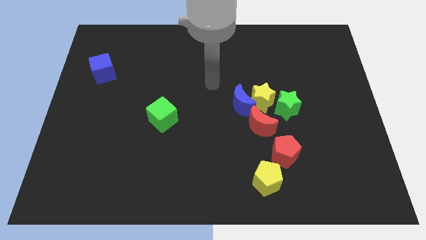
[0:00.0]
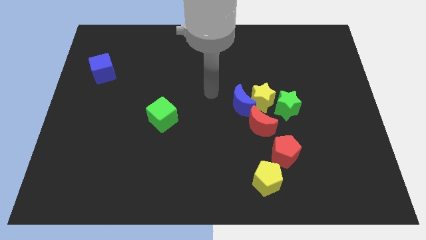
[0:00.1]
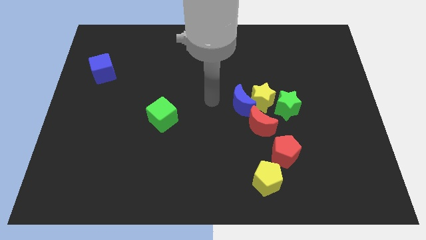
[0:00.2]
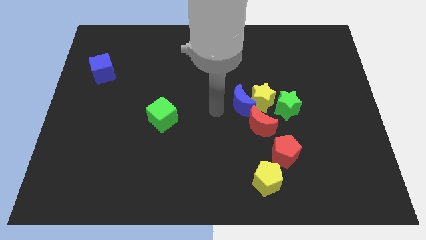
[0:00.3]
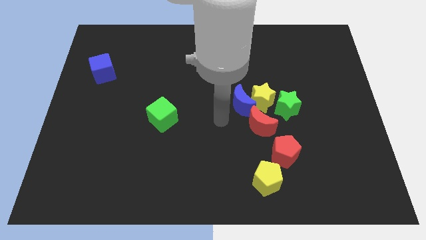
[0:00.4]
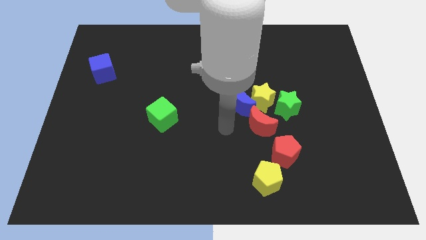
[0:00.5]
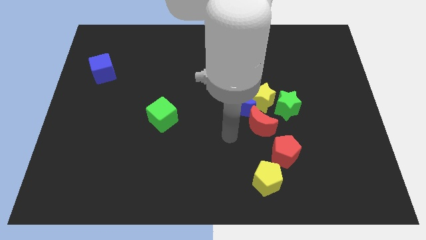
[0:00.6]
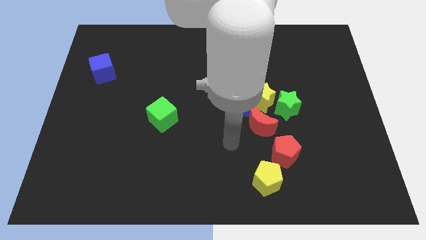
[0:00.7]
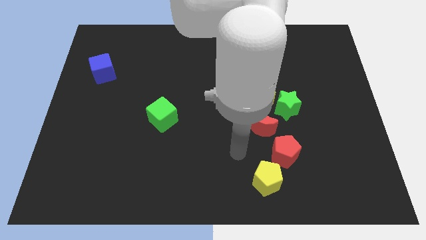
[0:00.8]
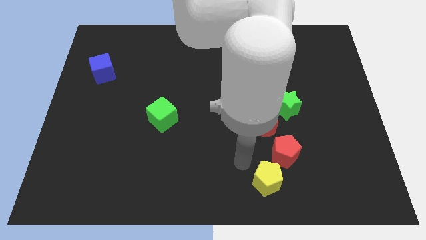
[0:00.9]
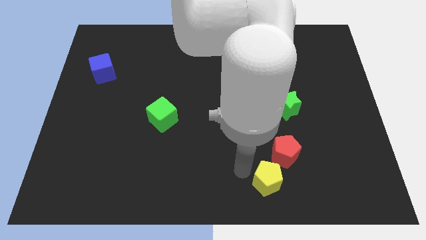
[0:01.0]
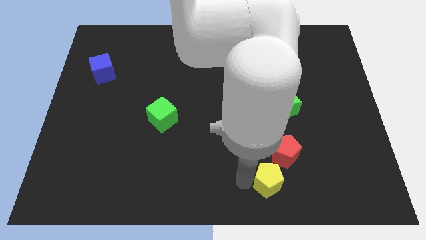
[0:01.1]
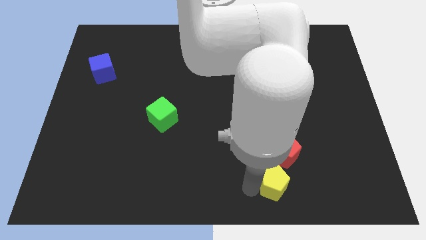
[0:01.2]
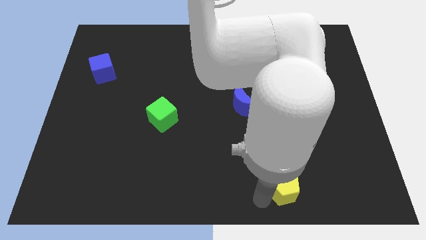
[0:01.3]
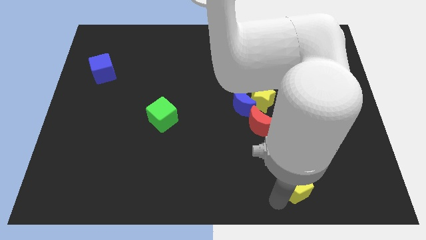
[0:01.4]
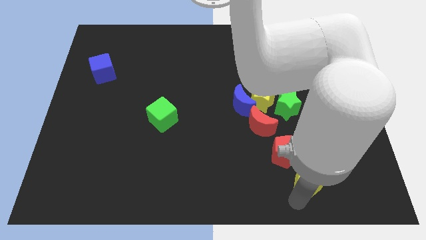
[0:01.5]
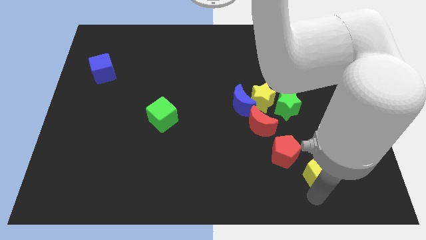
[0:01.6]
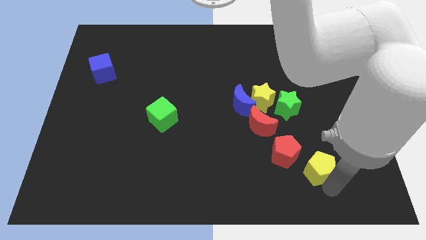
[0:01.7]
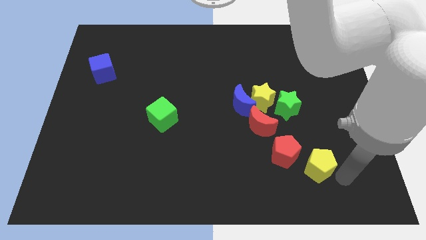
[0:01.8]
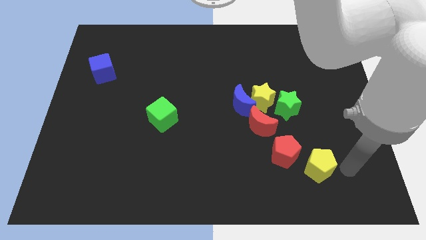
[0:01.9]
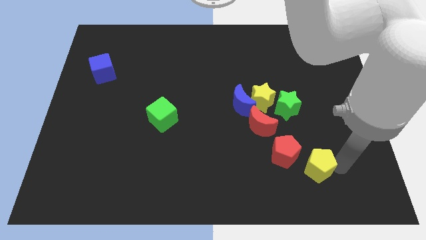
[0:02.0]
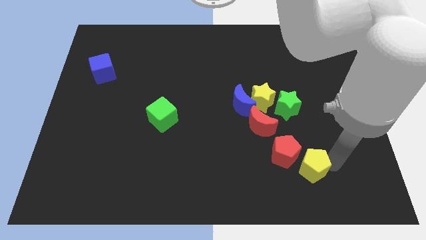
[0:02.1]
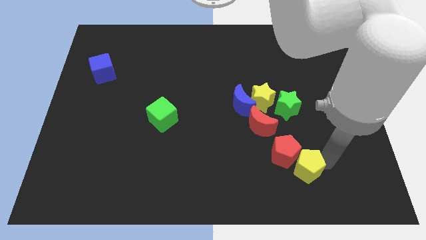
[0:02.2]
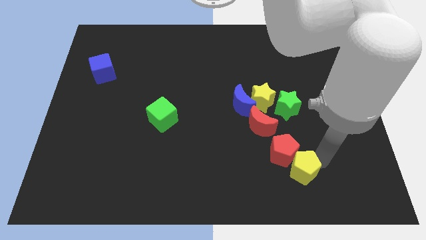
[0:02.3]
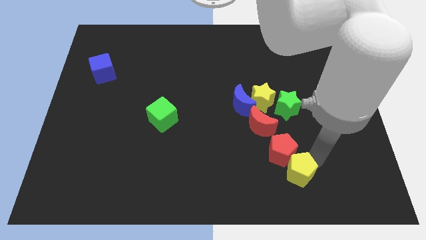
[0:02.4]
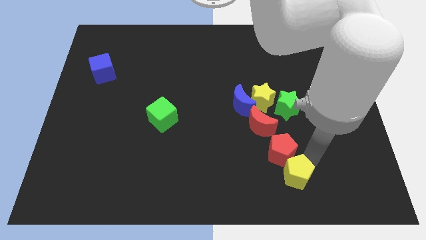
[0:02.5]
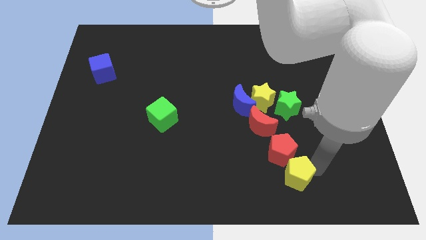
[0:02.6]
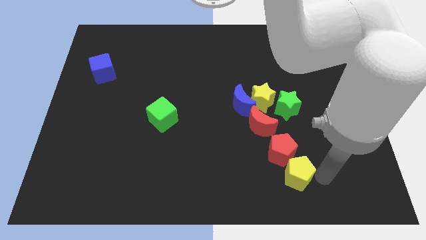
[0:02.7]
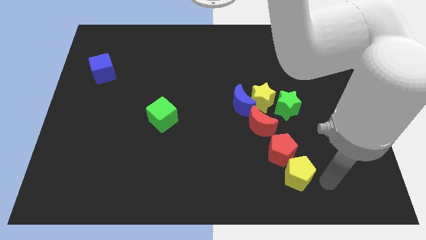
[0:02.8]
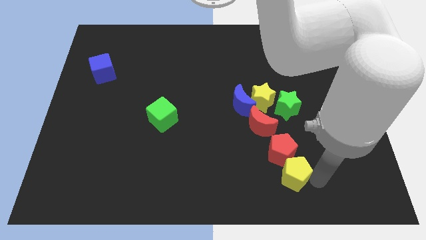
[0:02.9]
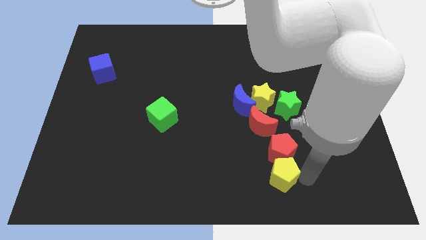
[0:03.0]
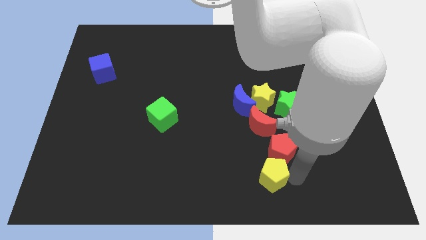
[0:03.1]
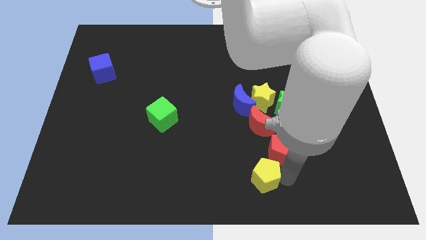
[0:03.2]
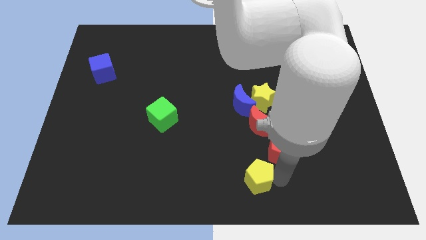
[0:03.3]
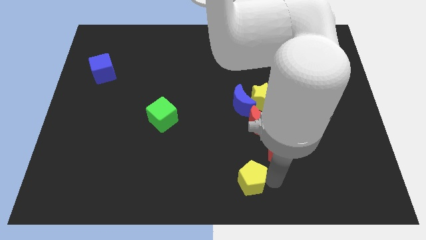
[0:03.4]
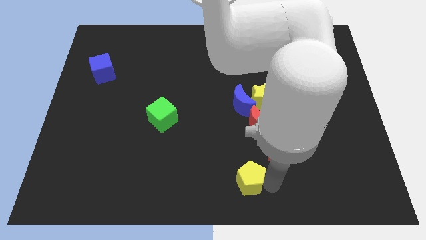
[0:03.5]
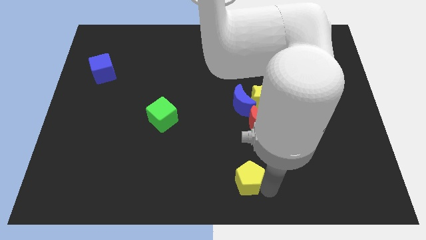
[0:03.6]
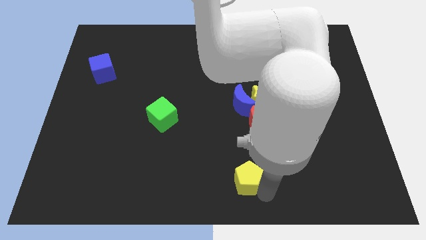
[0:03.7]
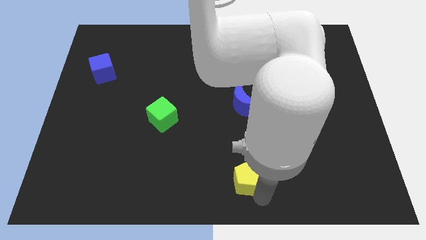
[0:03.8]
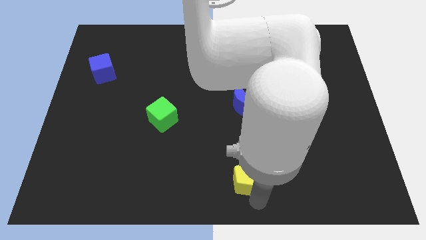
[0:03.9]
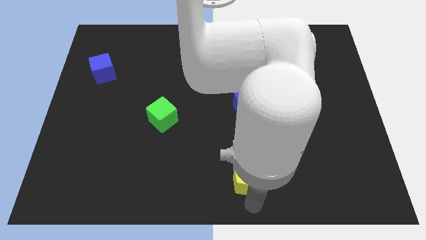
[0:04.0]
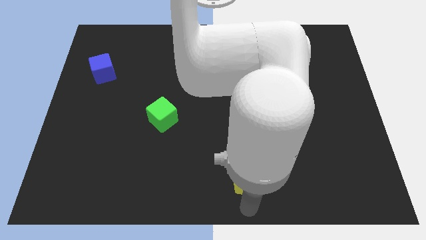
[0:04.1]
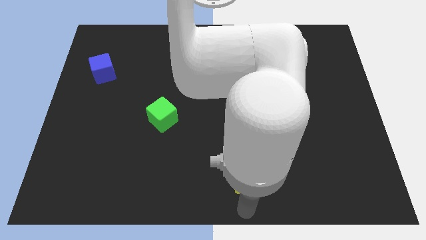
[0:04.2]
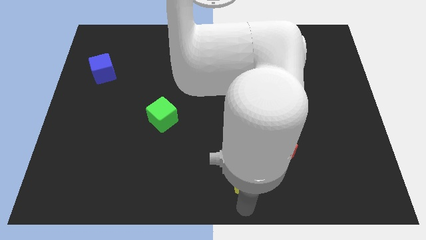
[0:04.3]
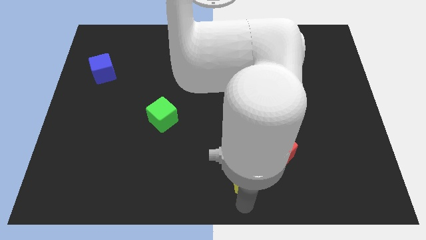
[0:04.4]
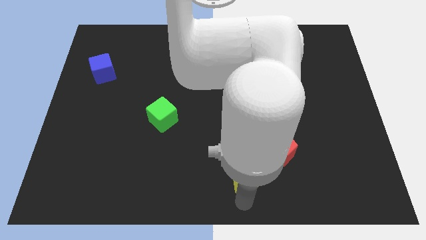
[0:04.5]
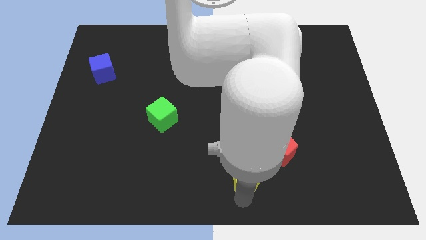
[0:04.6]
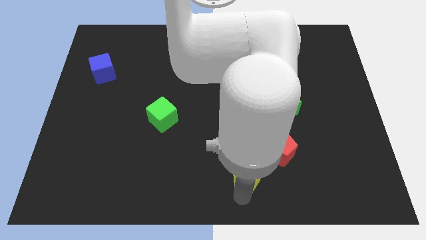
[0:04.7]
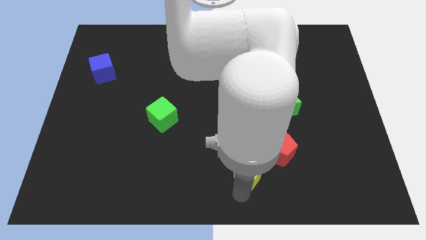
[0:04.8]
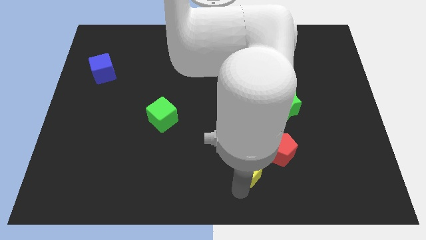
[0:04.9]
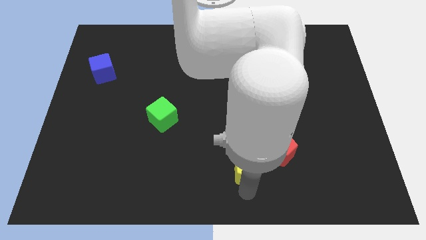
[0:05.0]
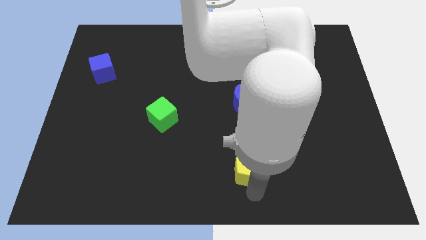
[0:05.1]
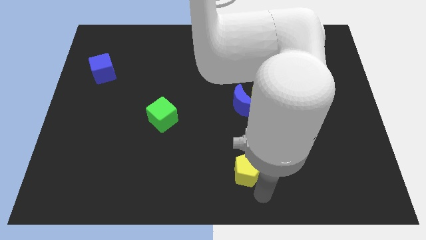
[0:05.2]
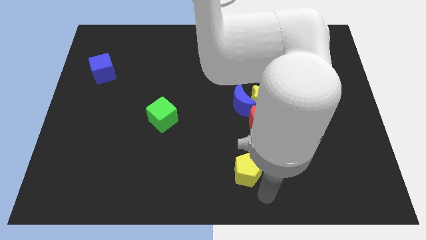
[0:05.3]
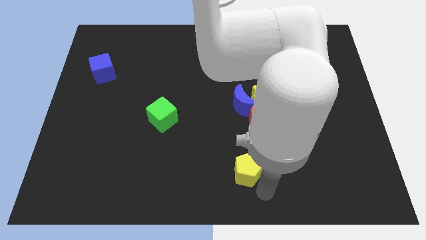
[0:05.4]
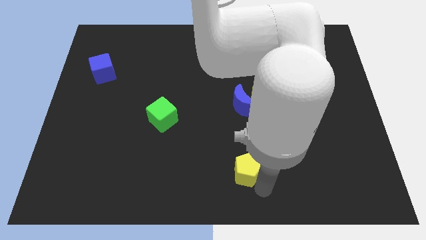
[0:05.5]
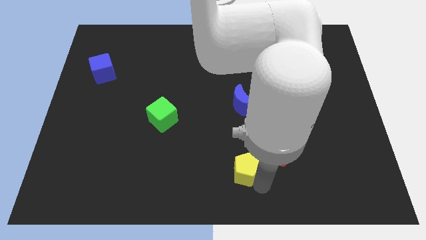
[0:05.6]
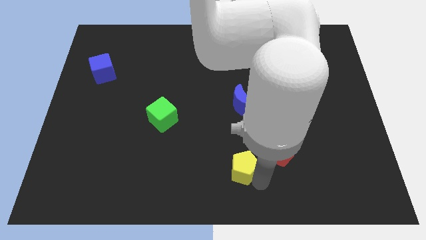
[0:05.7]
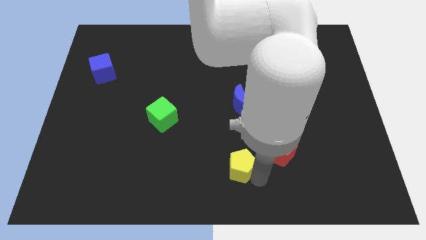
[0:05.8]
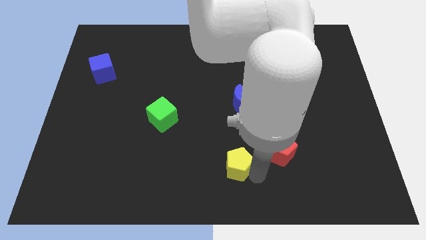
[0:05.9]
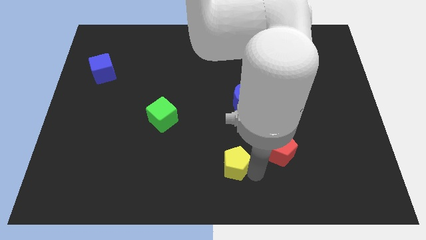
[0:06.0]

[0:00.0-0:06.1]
push the yellow pentagon a bit upwards and left diagonally

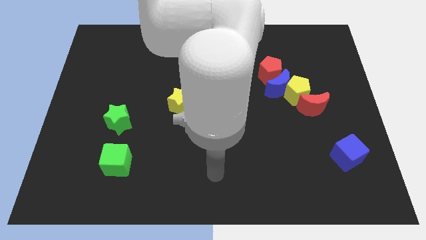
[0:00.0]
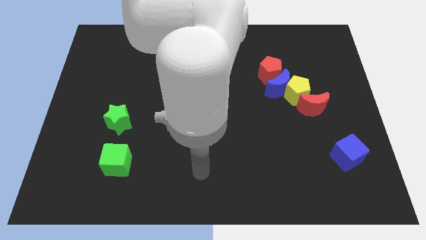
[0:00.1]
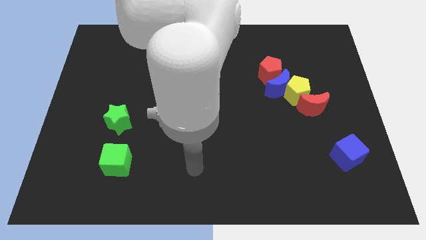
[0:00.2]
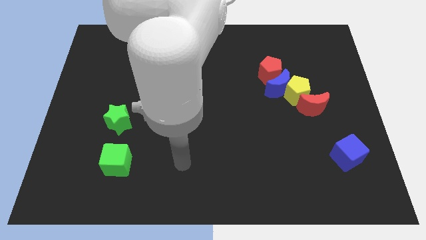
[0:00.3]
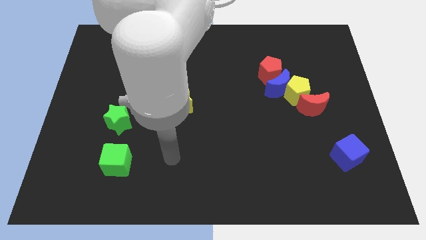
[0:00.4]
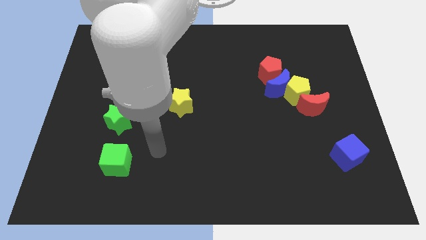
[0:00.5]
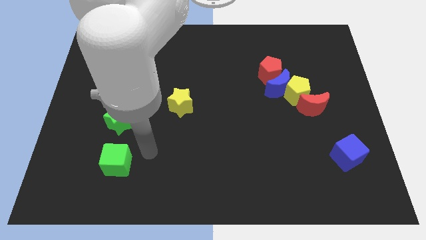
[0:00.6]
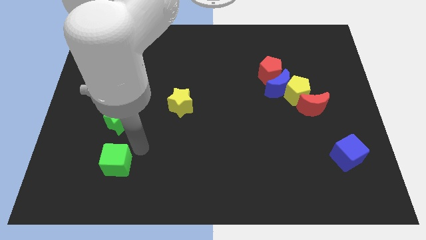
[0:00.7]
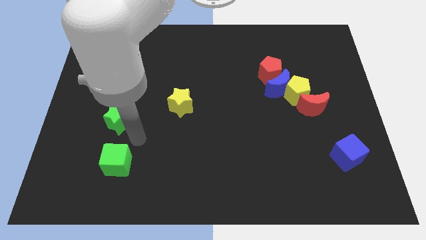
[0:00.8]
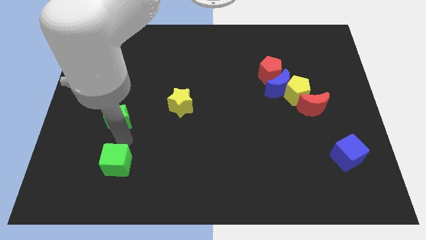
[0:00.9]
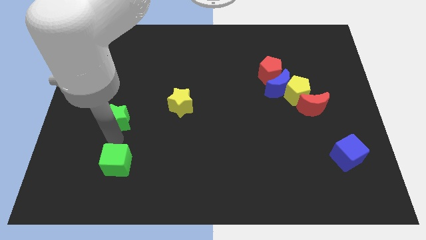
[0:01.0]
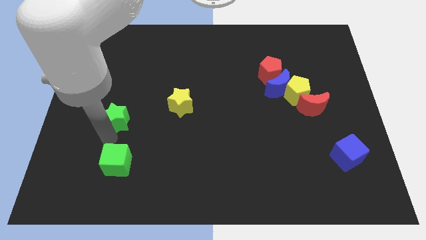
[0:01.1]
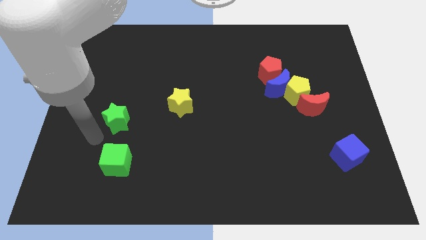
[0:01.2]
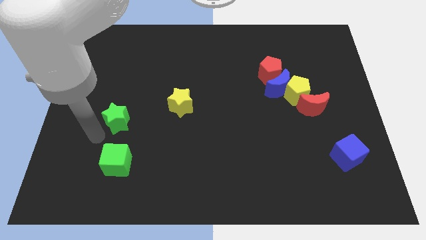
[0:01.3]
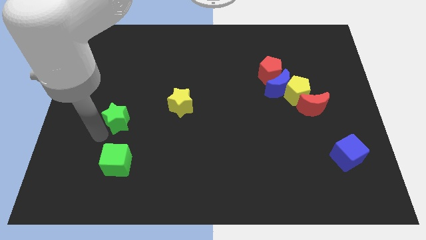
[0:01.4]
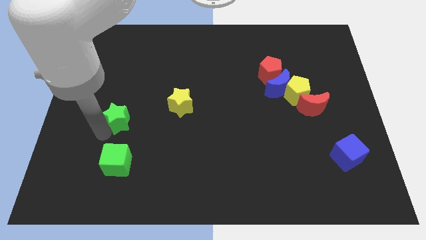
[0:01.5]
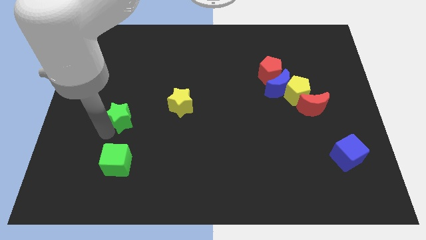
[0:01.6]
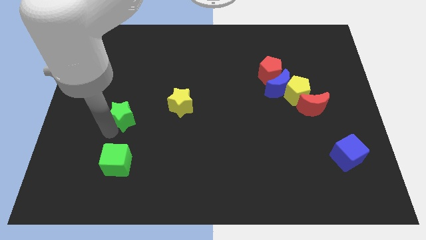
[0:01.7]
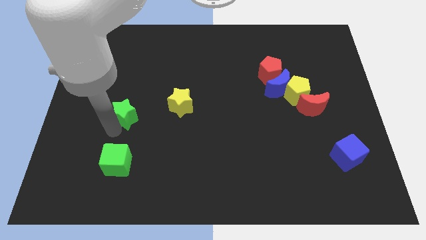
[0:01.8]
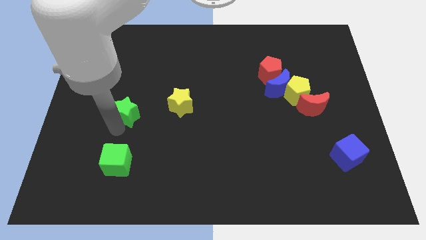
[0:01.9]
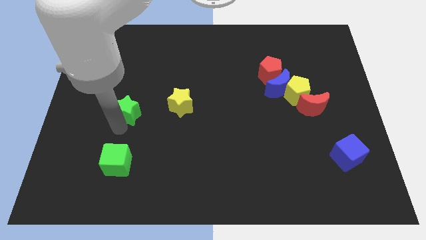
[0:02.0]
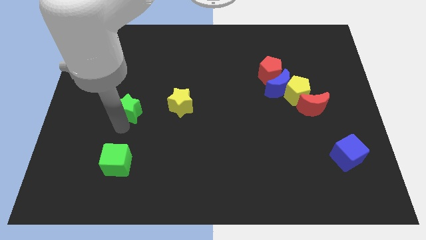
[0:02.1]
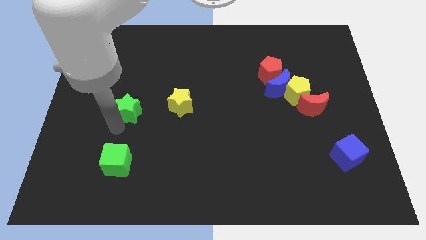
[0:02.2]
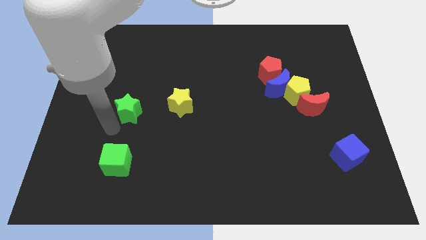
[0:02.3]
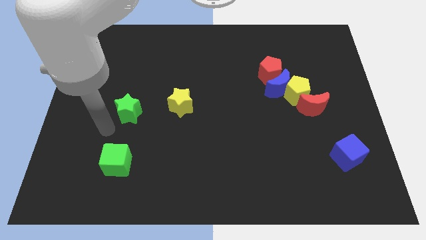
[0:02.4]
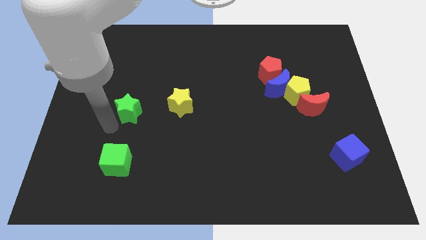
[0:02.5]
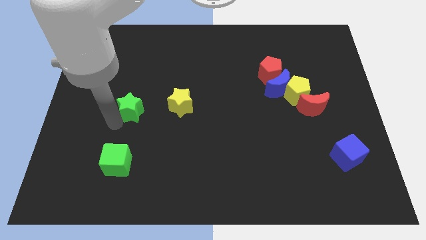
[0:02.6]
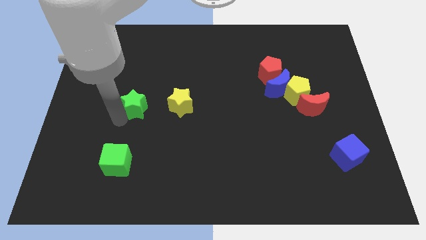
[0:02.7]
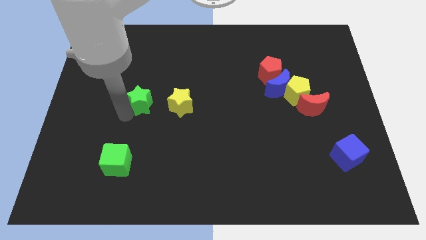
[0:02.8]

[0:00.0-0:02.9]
push the green star a bit upwards and then to the right
